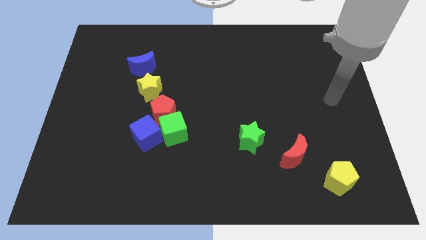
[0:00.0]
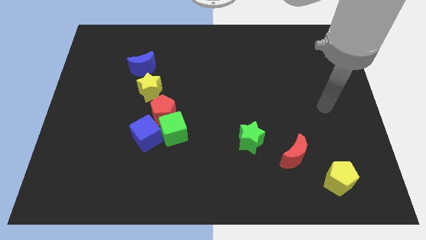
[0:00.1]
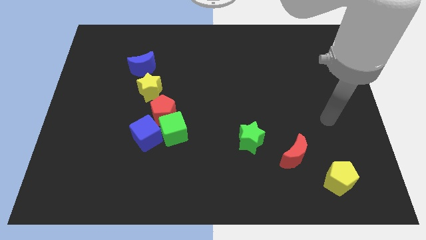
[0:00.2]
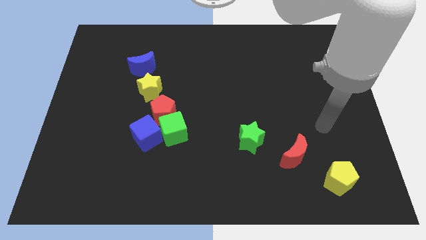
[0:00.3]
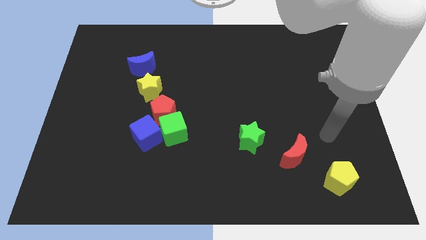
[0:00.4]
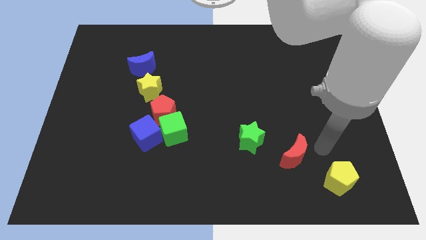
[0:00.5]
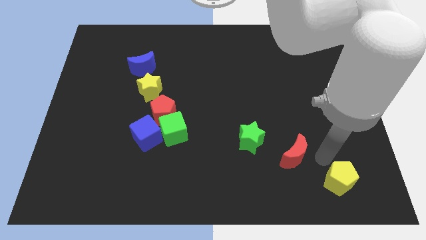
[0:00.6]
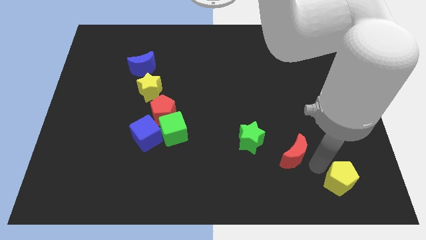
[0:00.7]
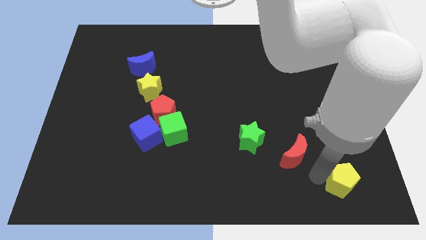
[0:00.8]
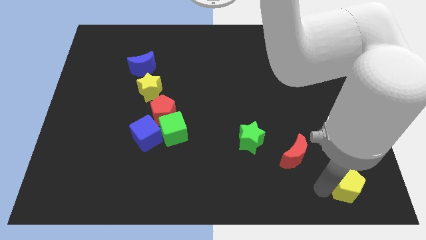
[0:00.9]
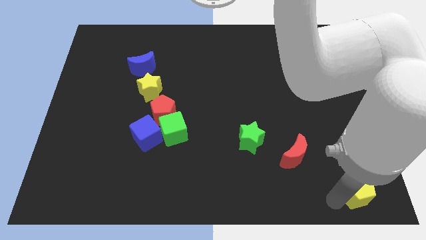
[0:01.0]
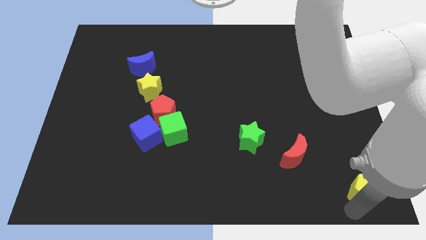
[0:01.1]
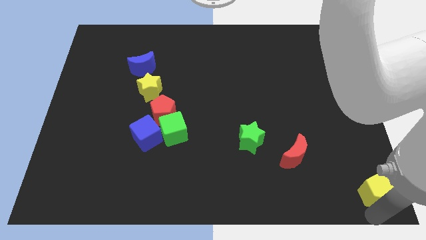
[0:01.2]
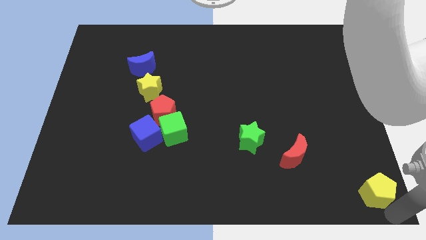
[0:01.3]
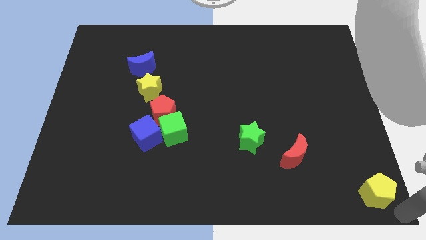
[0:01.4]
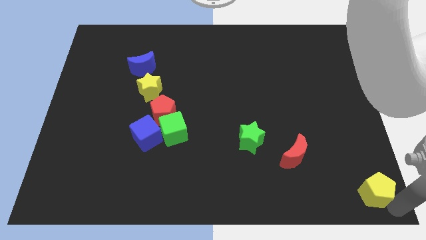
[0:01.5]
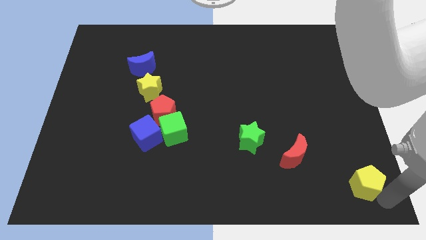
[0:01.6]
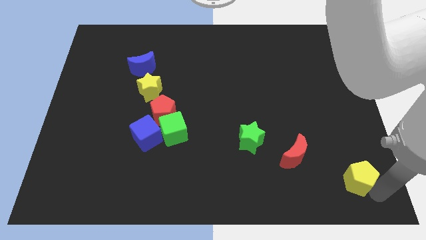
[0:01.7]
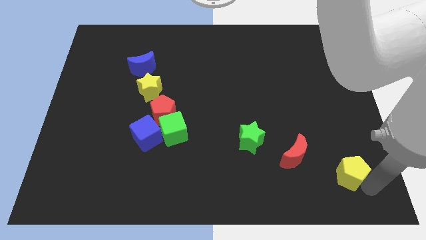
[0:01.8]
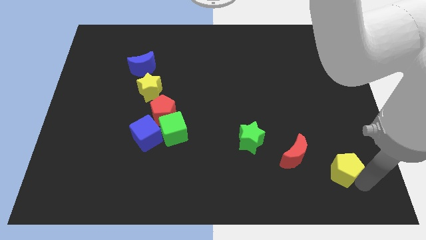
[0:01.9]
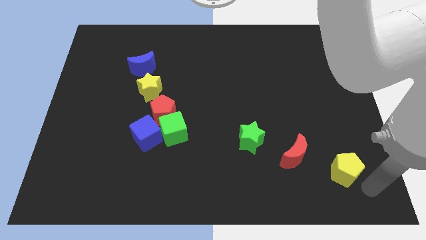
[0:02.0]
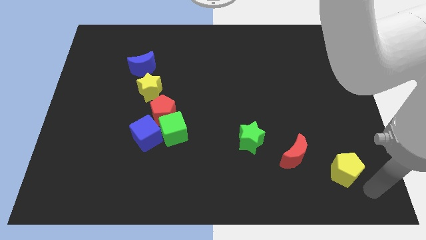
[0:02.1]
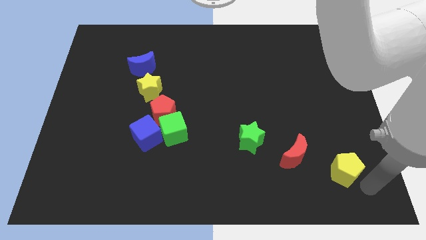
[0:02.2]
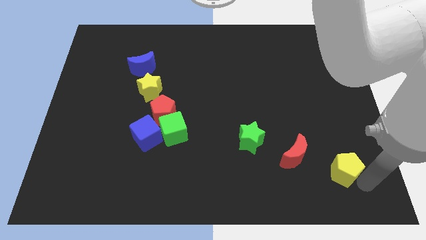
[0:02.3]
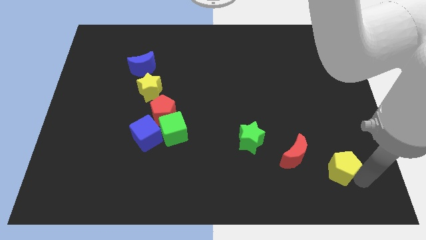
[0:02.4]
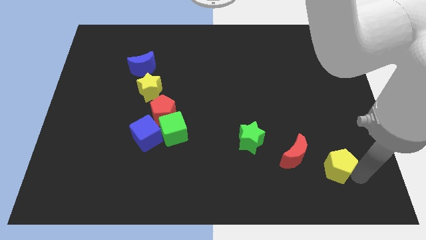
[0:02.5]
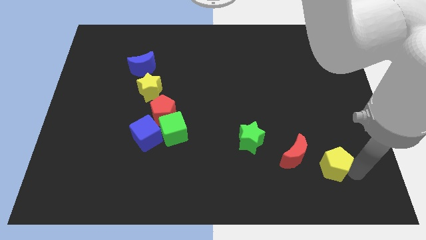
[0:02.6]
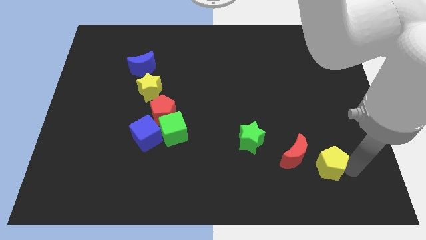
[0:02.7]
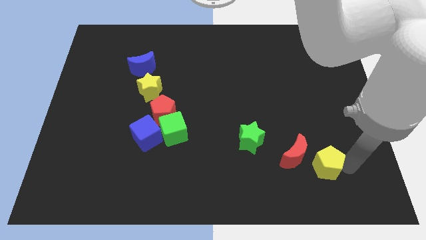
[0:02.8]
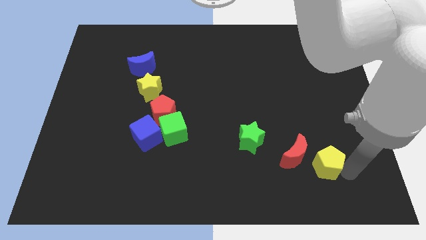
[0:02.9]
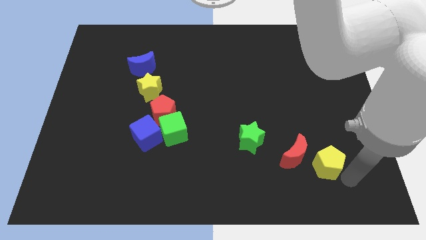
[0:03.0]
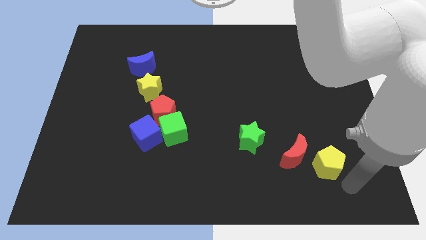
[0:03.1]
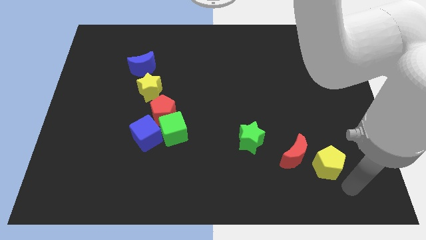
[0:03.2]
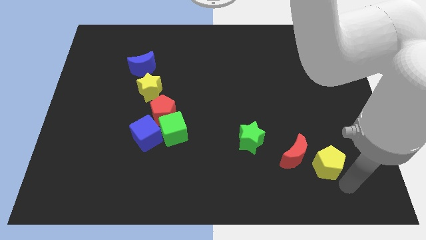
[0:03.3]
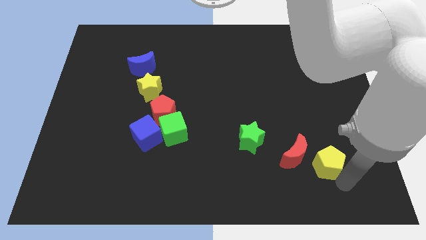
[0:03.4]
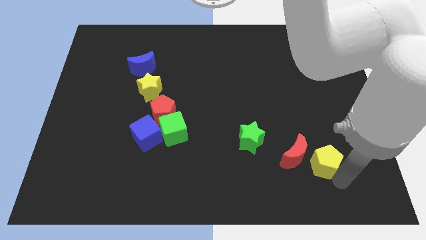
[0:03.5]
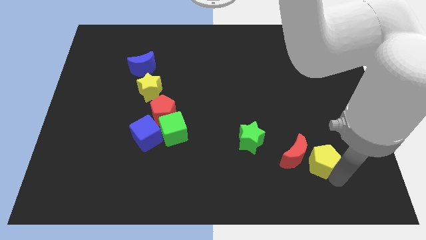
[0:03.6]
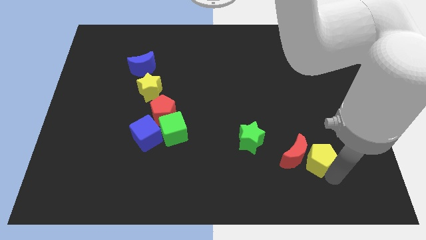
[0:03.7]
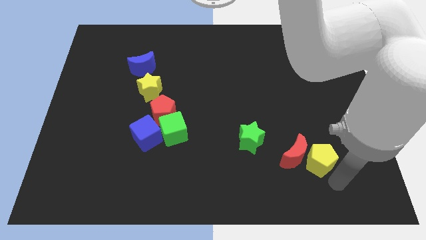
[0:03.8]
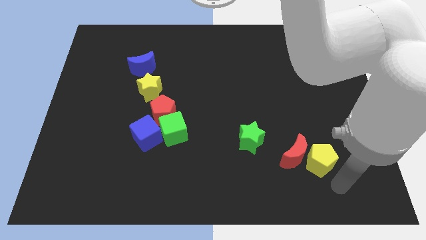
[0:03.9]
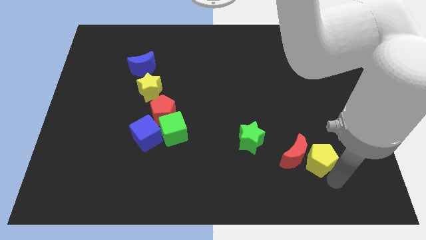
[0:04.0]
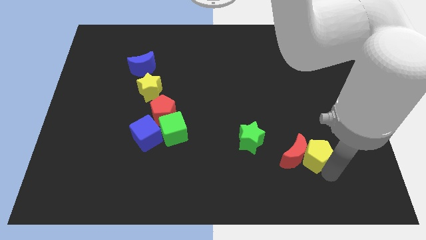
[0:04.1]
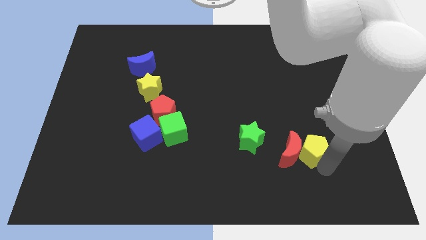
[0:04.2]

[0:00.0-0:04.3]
slide the yellow pentagon upwards and to the left a little bit

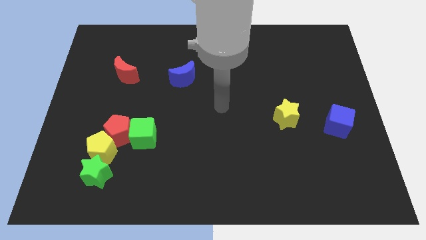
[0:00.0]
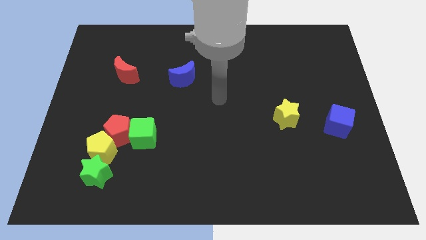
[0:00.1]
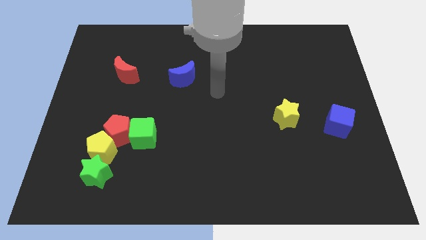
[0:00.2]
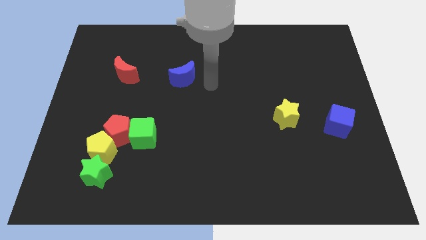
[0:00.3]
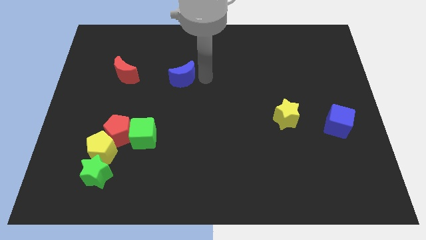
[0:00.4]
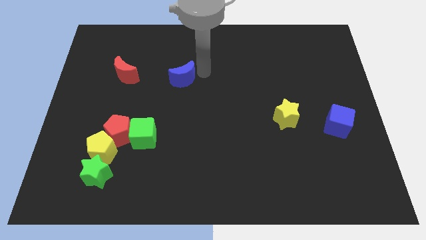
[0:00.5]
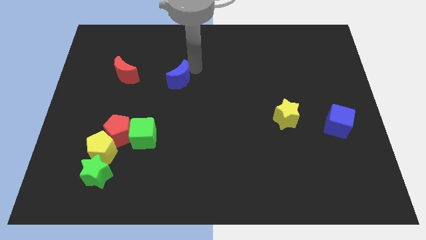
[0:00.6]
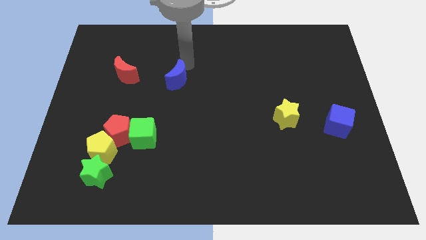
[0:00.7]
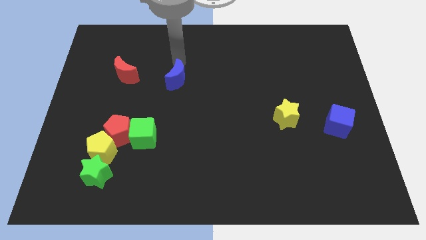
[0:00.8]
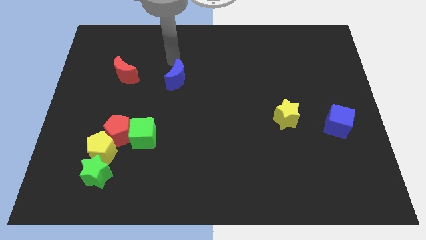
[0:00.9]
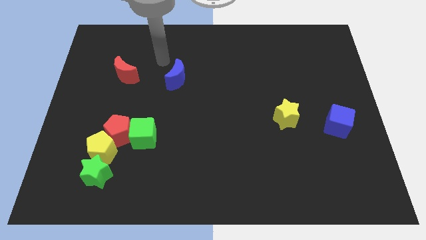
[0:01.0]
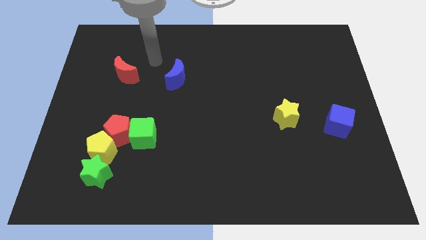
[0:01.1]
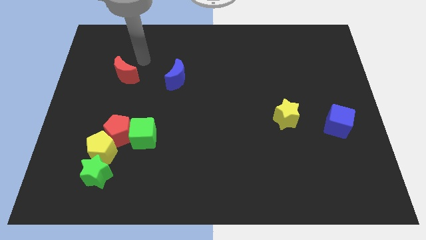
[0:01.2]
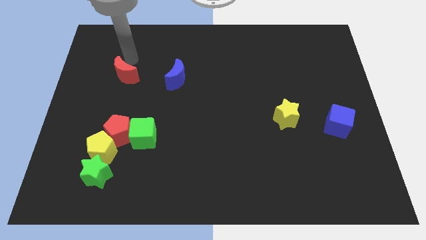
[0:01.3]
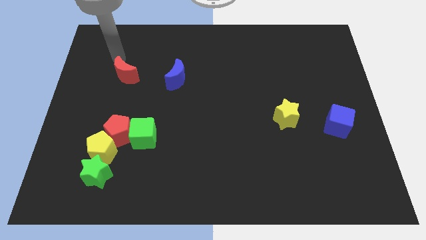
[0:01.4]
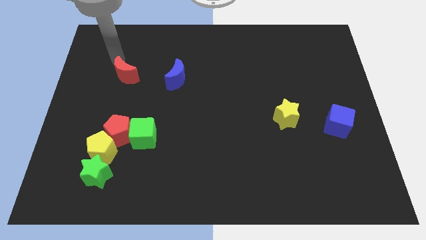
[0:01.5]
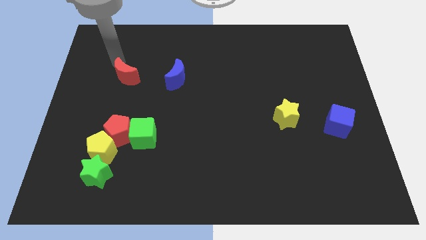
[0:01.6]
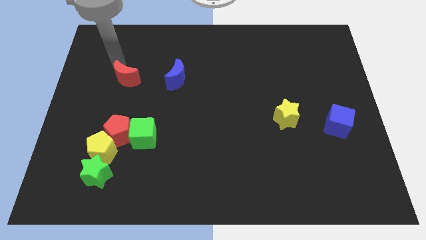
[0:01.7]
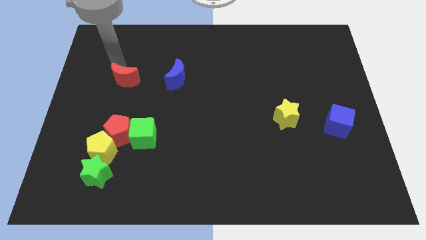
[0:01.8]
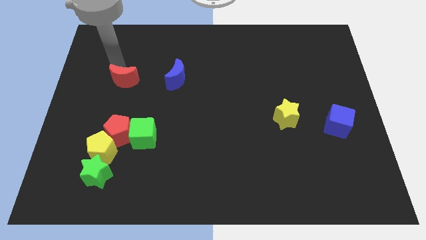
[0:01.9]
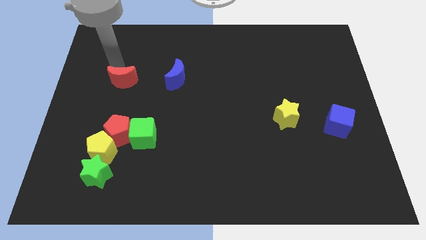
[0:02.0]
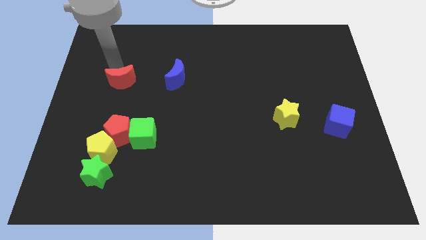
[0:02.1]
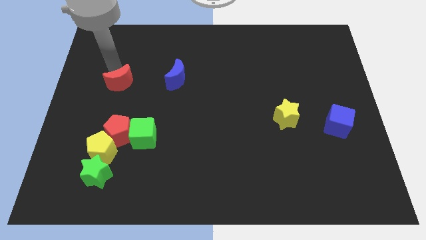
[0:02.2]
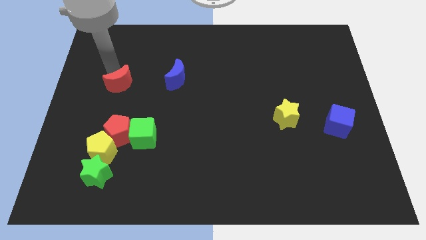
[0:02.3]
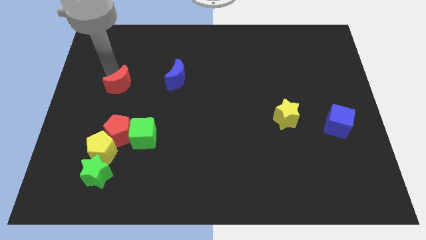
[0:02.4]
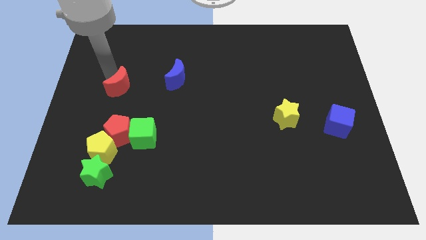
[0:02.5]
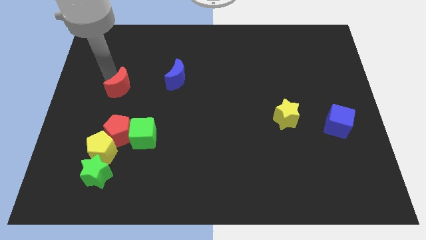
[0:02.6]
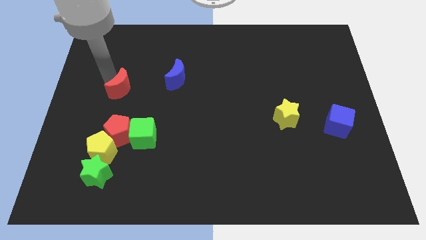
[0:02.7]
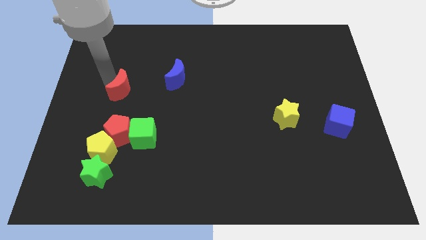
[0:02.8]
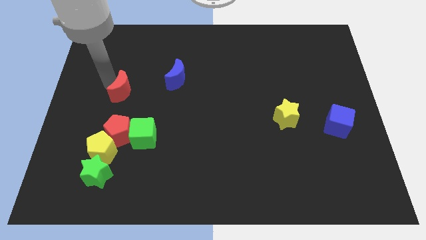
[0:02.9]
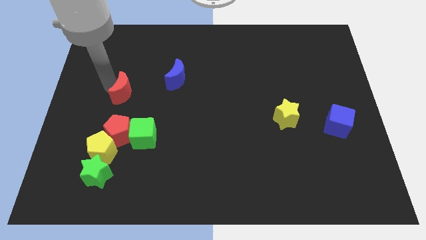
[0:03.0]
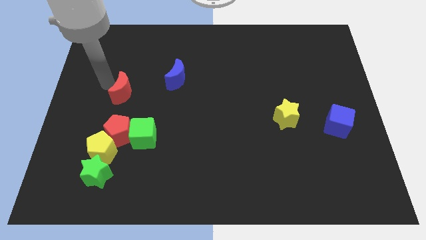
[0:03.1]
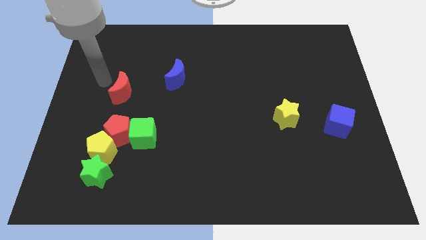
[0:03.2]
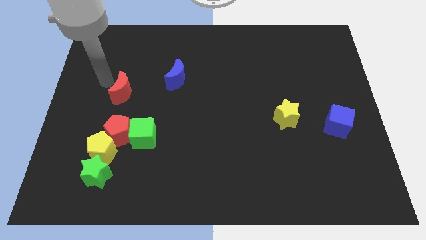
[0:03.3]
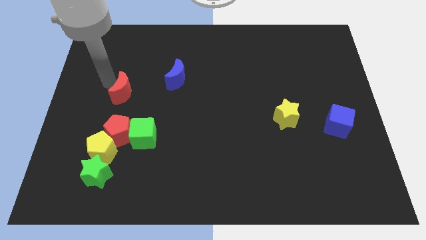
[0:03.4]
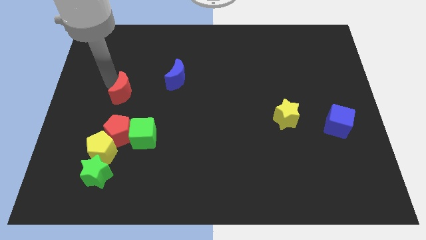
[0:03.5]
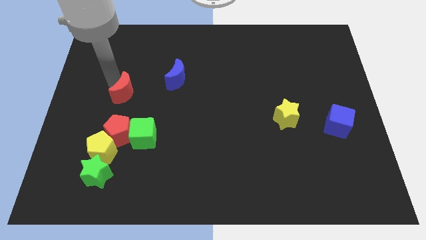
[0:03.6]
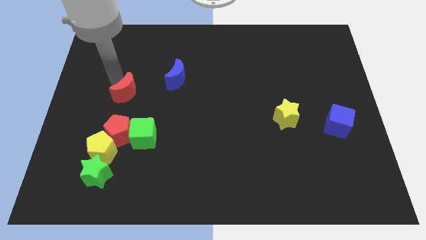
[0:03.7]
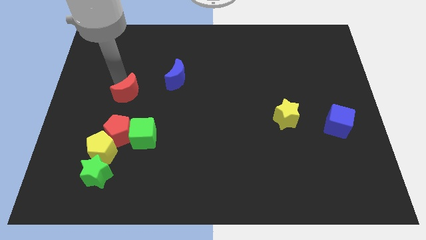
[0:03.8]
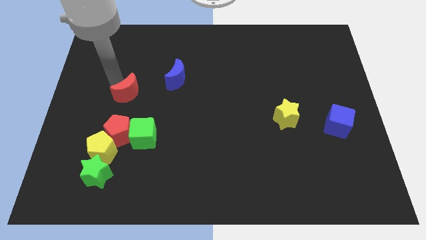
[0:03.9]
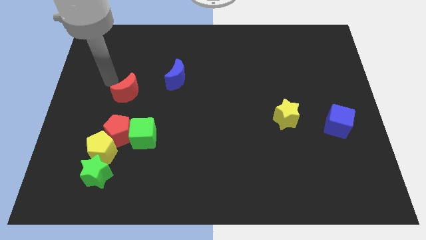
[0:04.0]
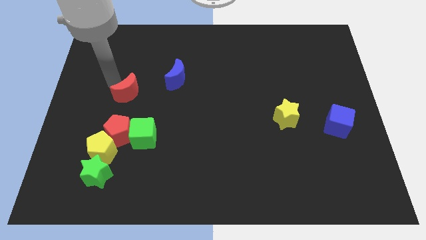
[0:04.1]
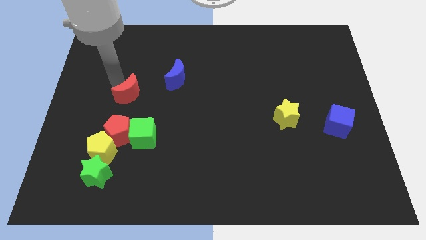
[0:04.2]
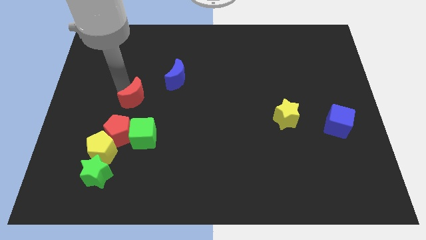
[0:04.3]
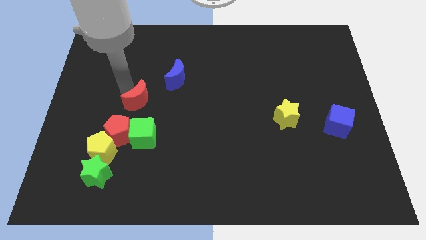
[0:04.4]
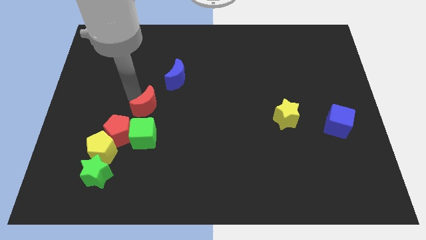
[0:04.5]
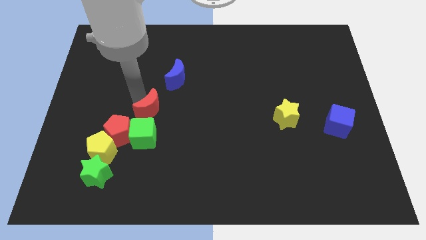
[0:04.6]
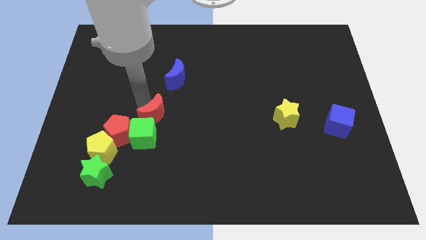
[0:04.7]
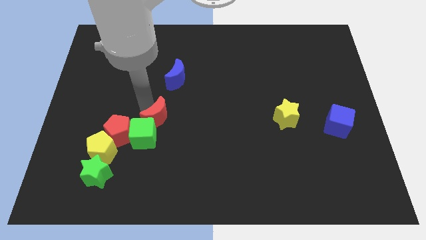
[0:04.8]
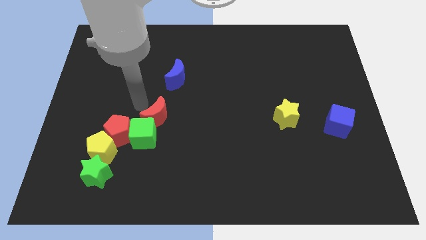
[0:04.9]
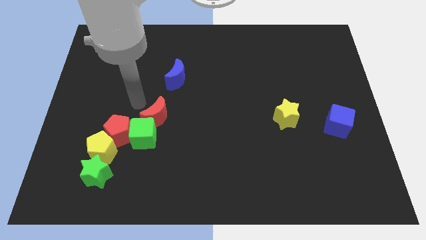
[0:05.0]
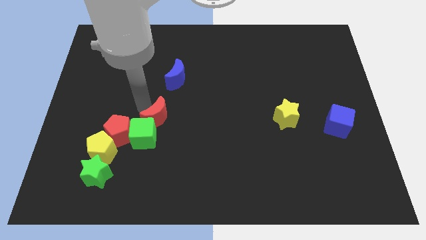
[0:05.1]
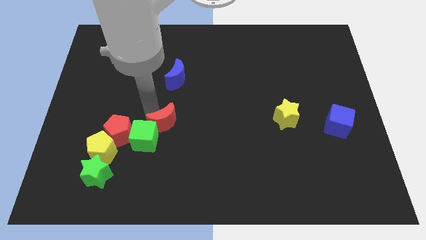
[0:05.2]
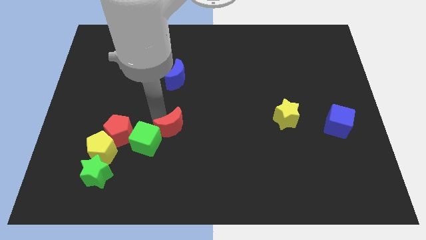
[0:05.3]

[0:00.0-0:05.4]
push the red moon down and to the right
